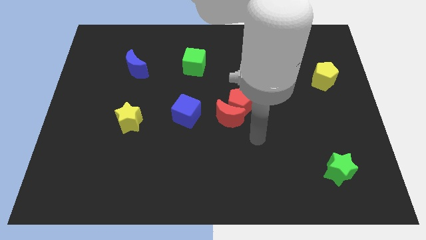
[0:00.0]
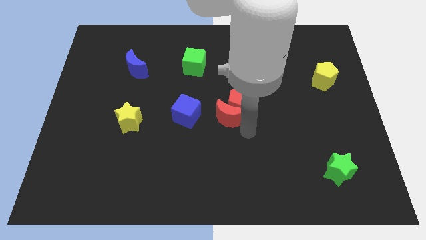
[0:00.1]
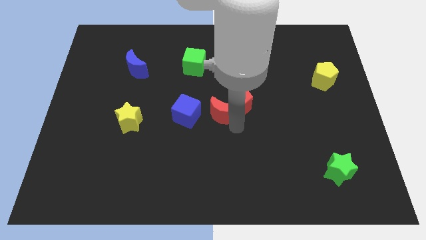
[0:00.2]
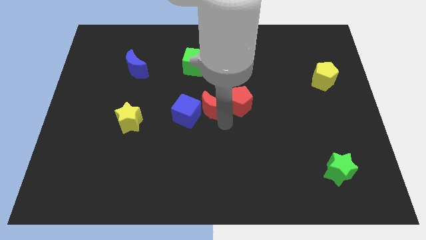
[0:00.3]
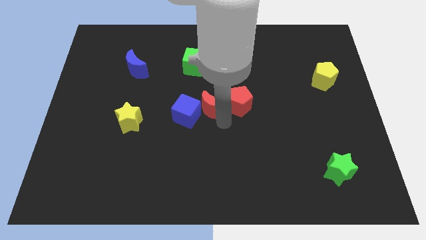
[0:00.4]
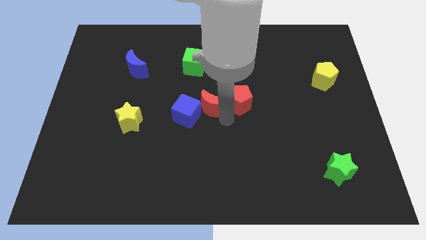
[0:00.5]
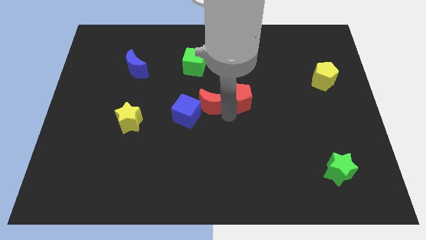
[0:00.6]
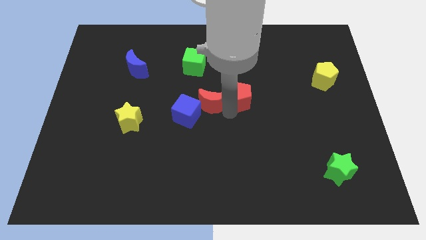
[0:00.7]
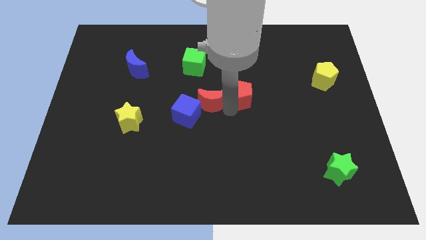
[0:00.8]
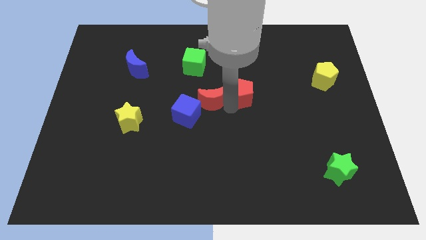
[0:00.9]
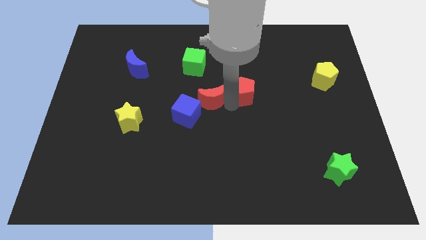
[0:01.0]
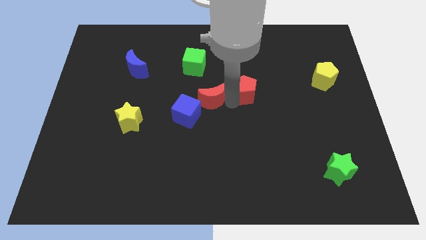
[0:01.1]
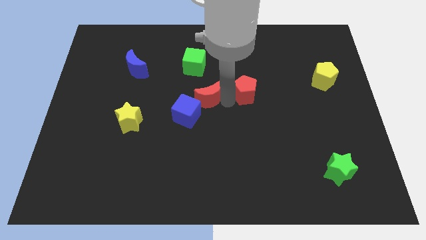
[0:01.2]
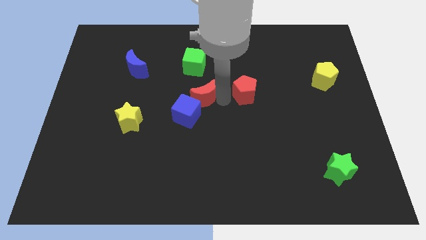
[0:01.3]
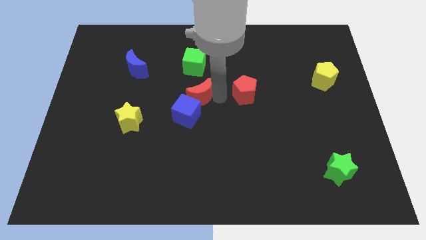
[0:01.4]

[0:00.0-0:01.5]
separate the red pentagon from the red moon

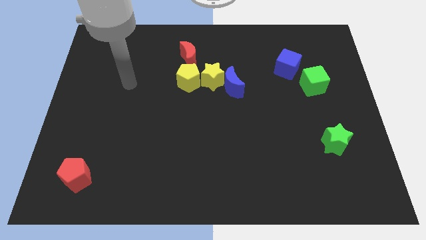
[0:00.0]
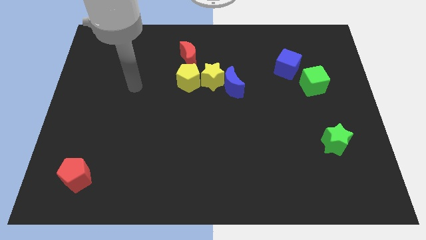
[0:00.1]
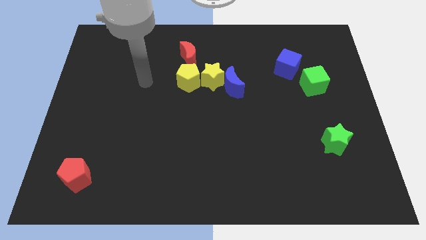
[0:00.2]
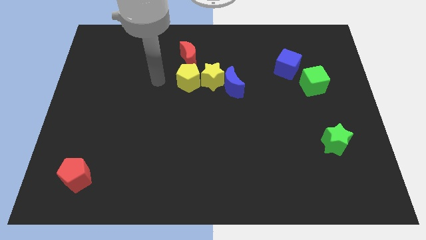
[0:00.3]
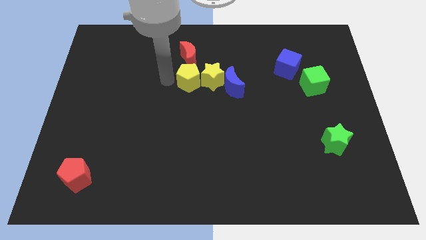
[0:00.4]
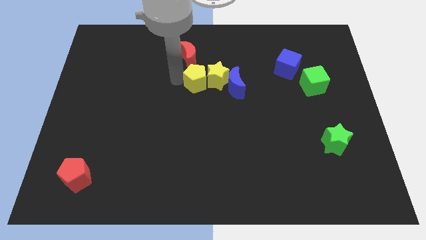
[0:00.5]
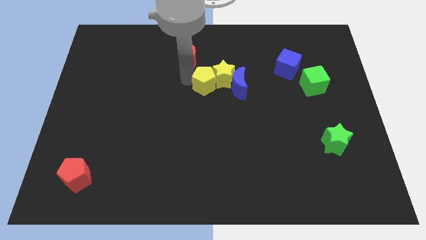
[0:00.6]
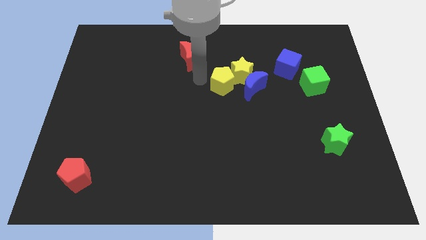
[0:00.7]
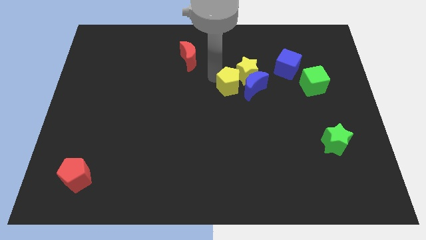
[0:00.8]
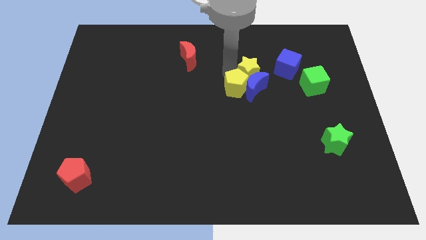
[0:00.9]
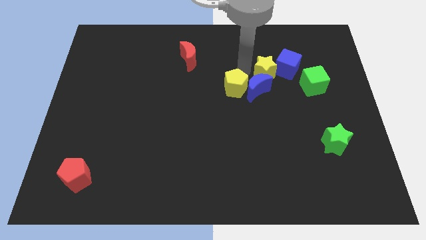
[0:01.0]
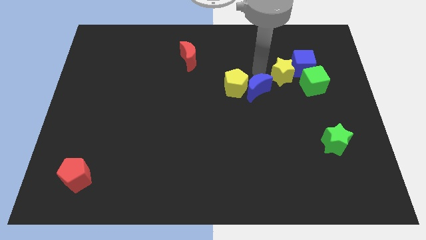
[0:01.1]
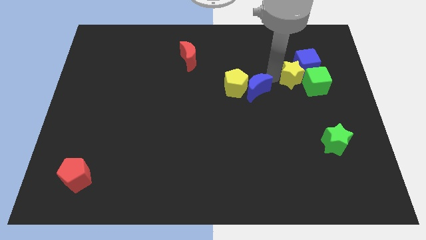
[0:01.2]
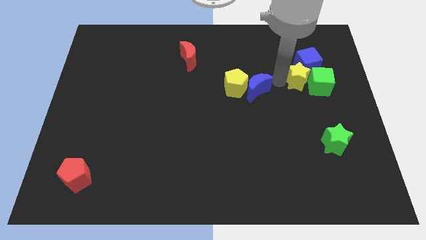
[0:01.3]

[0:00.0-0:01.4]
pull the blue moon apart from the yellow star

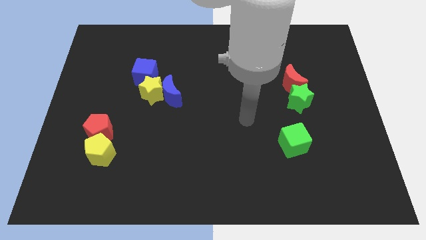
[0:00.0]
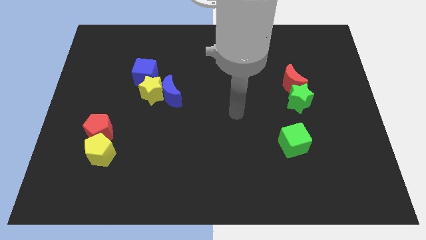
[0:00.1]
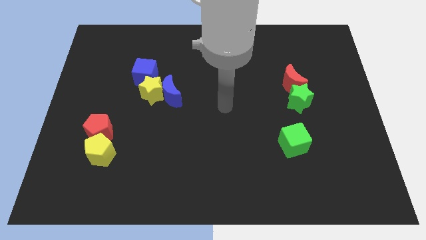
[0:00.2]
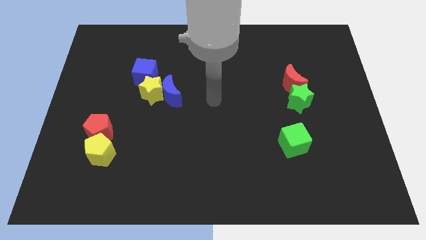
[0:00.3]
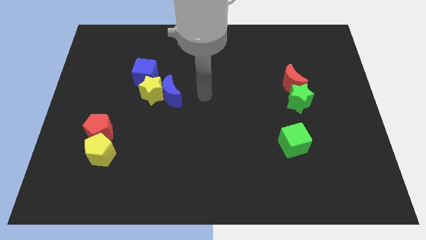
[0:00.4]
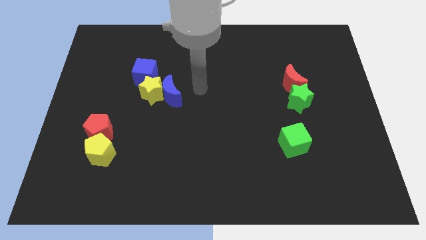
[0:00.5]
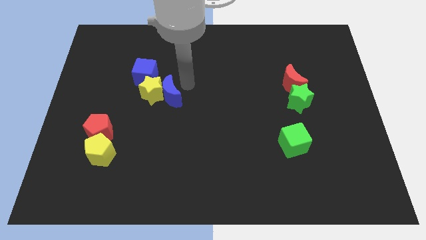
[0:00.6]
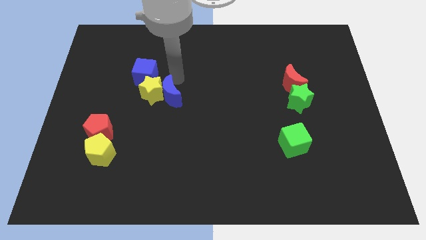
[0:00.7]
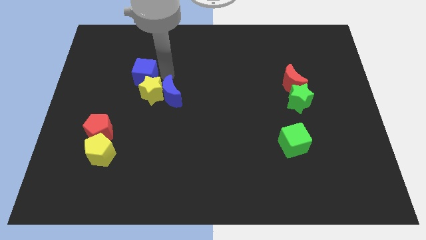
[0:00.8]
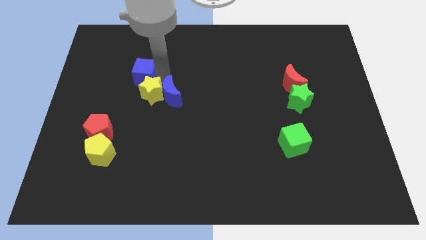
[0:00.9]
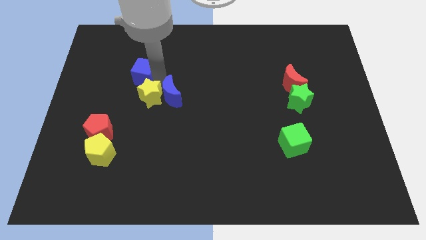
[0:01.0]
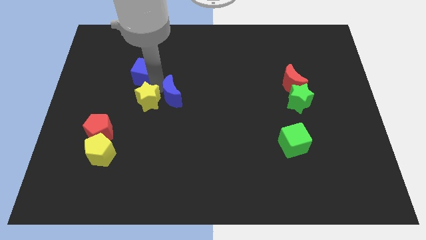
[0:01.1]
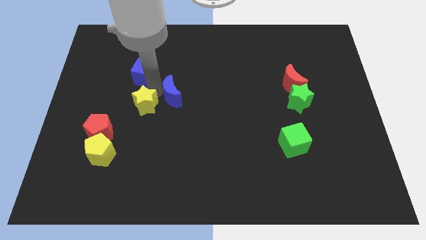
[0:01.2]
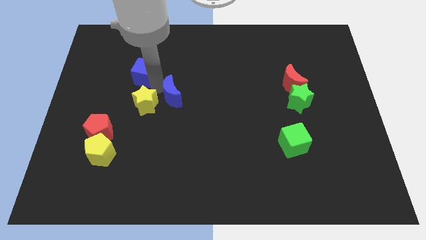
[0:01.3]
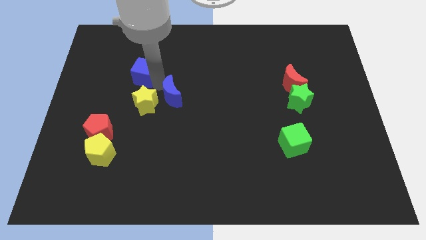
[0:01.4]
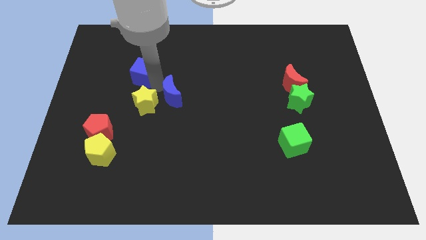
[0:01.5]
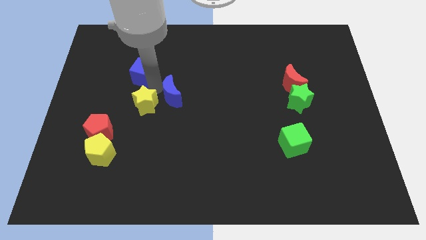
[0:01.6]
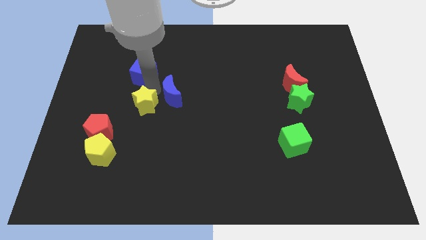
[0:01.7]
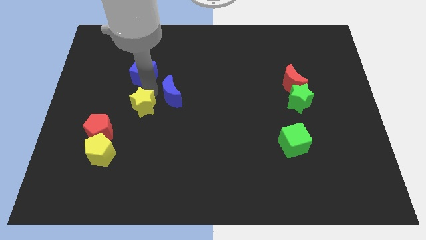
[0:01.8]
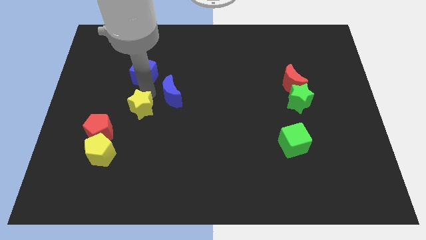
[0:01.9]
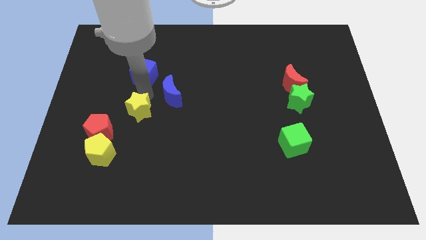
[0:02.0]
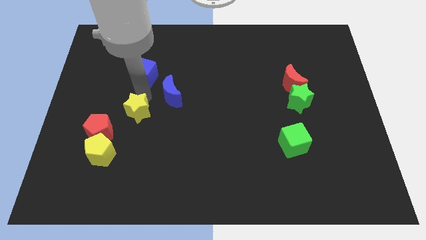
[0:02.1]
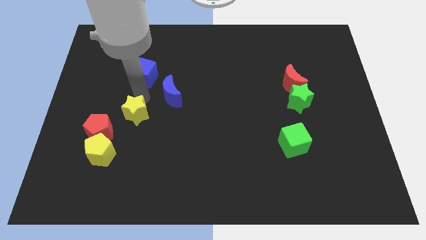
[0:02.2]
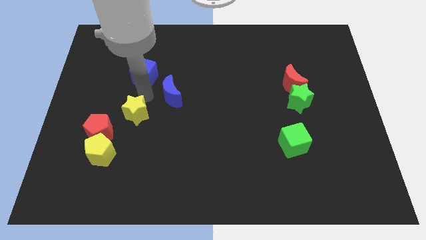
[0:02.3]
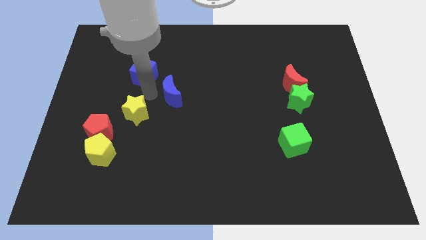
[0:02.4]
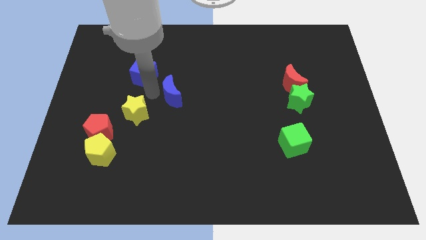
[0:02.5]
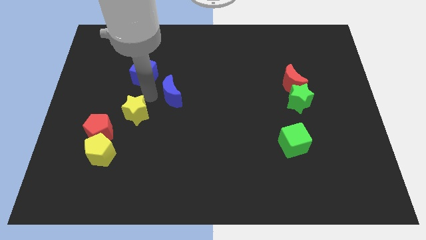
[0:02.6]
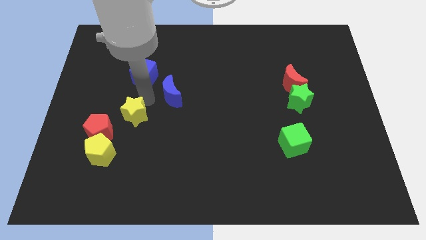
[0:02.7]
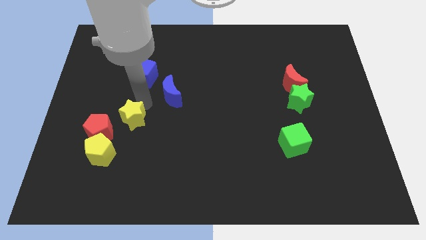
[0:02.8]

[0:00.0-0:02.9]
separate the yellow star from the blue moon and blue cube

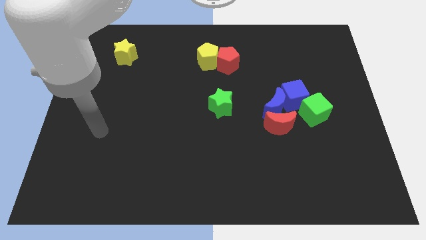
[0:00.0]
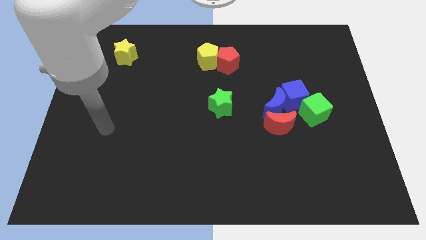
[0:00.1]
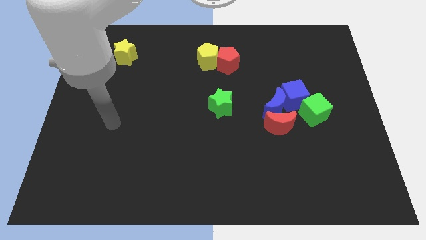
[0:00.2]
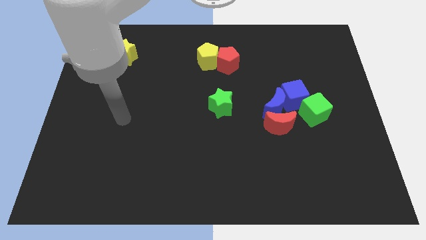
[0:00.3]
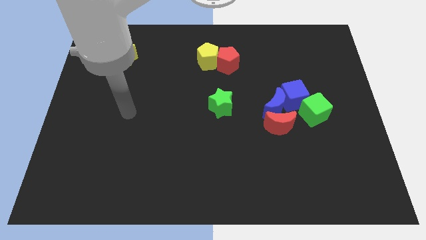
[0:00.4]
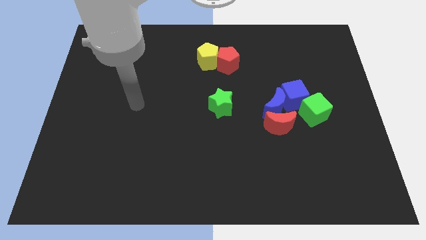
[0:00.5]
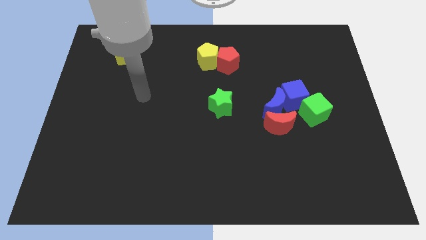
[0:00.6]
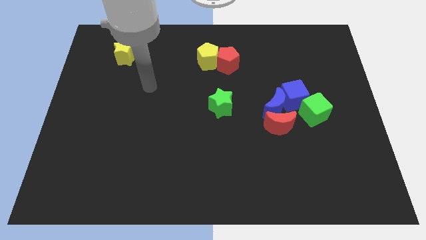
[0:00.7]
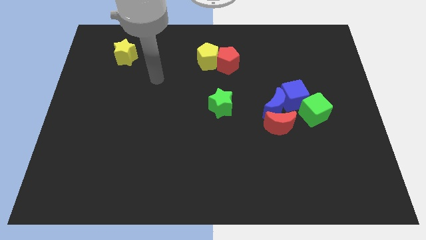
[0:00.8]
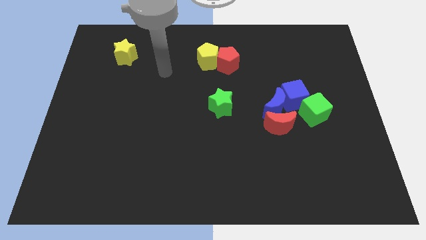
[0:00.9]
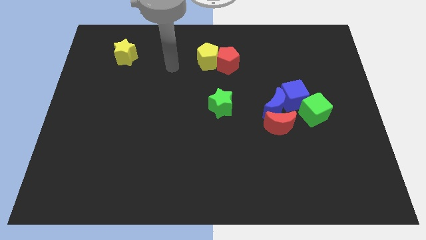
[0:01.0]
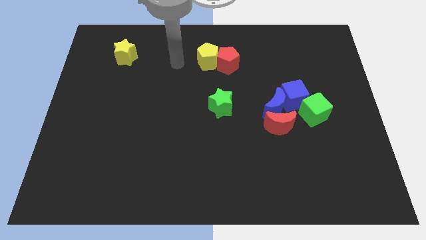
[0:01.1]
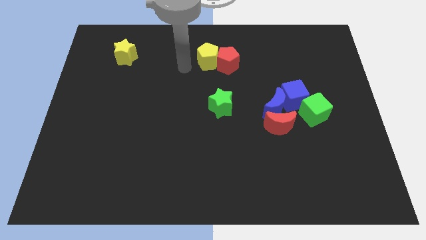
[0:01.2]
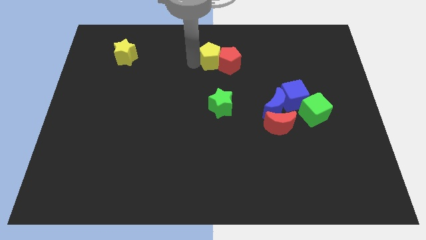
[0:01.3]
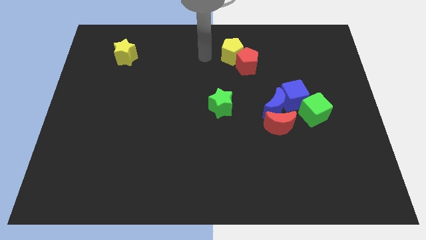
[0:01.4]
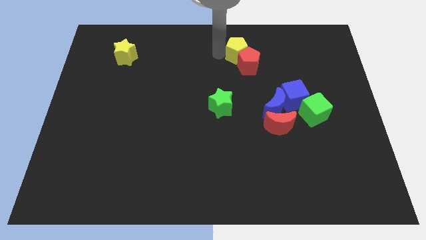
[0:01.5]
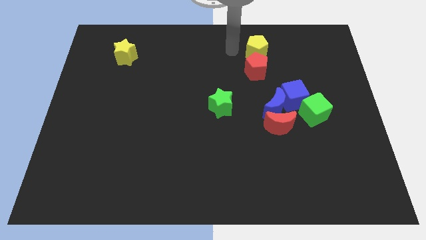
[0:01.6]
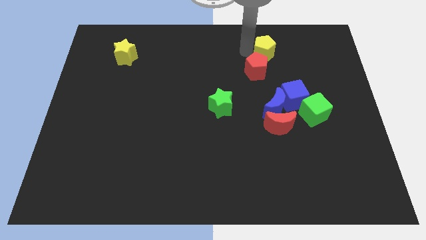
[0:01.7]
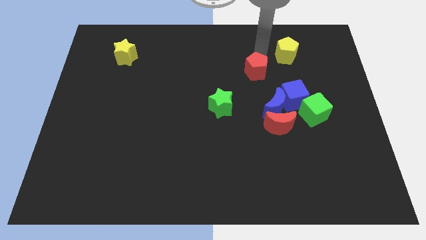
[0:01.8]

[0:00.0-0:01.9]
move the red pentagon away from the yellow pentagon

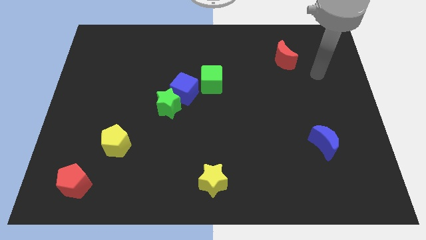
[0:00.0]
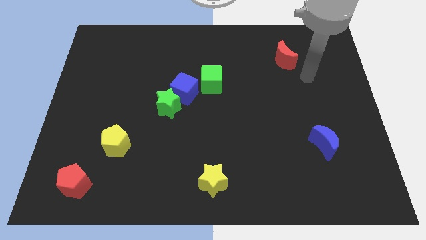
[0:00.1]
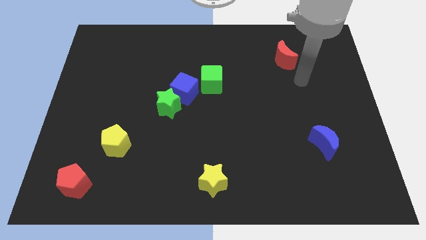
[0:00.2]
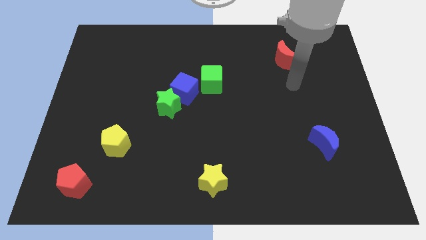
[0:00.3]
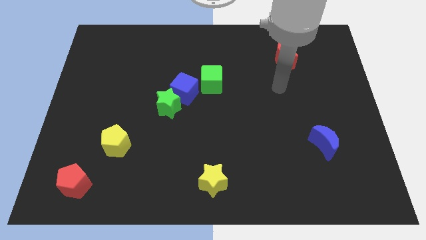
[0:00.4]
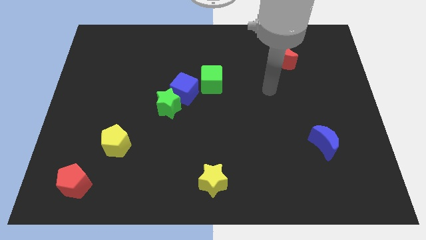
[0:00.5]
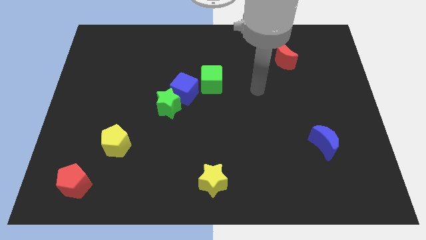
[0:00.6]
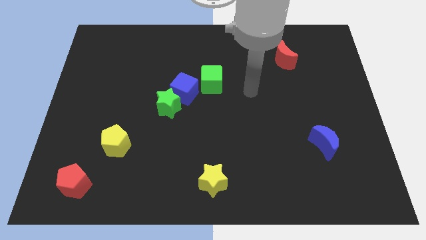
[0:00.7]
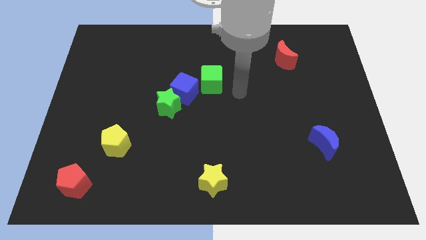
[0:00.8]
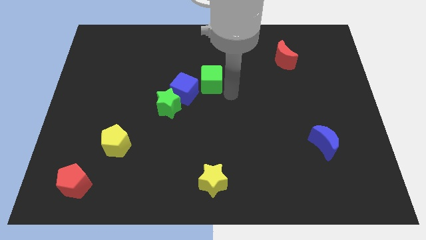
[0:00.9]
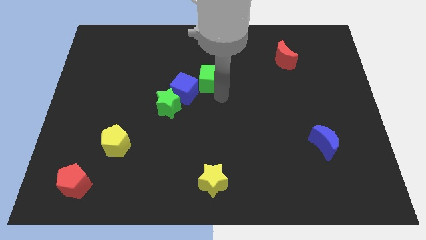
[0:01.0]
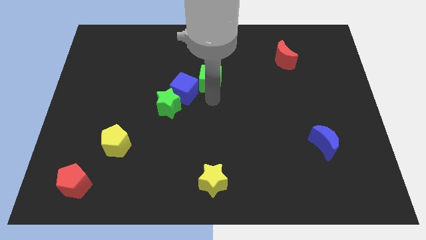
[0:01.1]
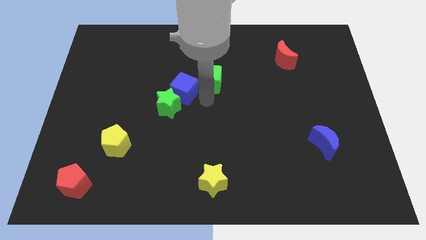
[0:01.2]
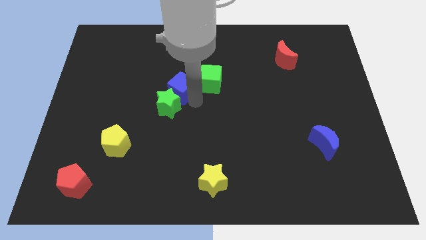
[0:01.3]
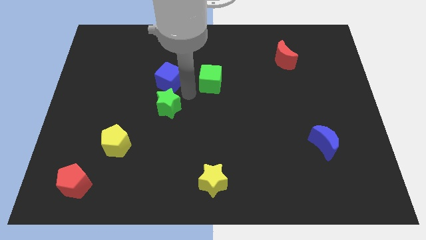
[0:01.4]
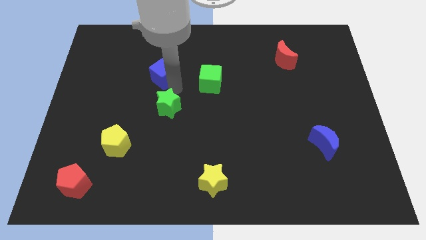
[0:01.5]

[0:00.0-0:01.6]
move the green star away from the blue cube
